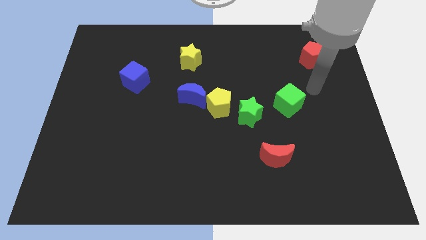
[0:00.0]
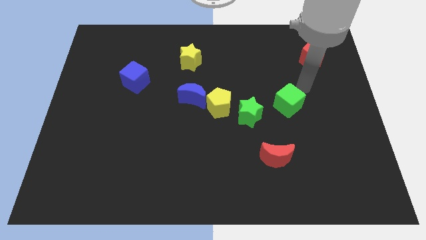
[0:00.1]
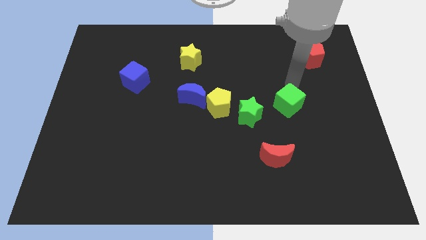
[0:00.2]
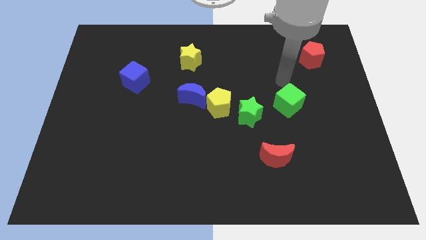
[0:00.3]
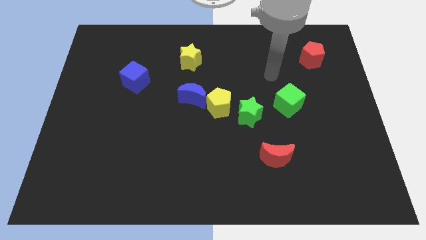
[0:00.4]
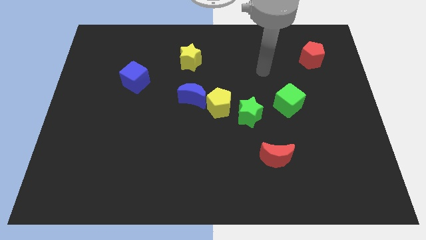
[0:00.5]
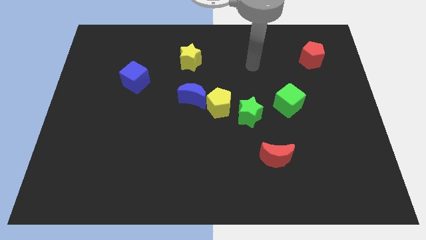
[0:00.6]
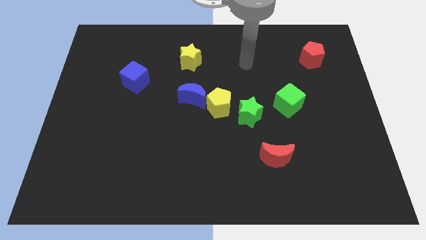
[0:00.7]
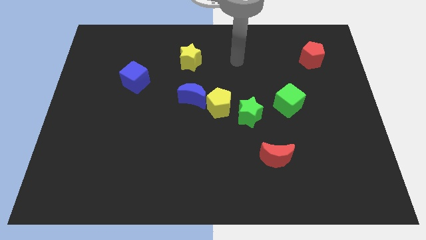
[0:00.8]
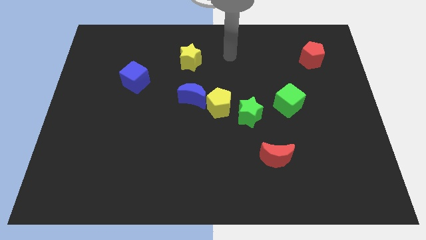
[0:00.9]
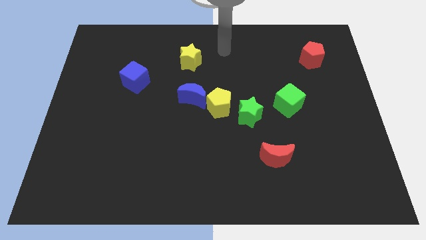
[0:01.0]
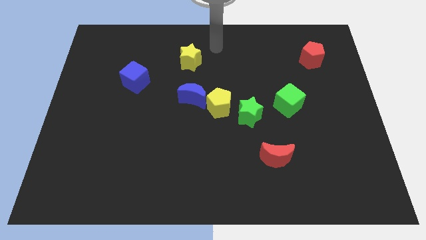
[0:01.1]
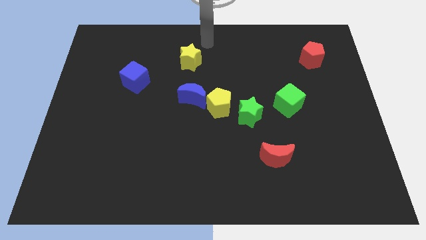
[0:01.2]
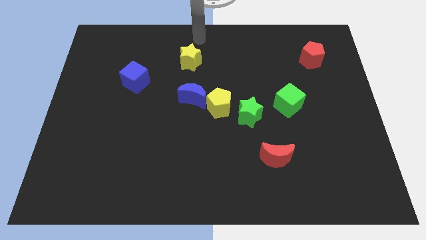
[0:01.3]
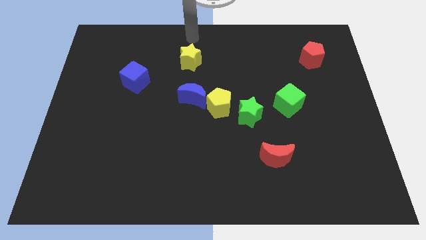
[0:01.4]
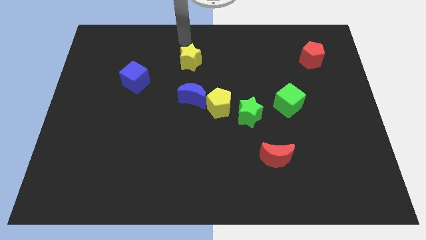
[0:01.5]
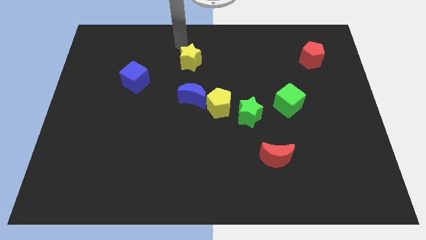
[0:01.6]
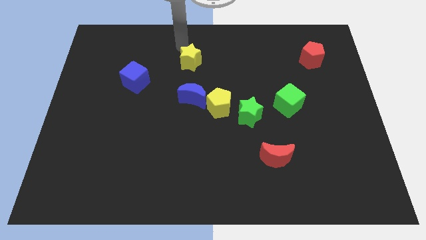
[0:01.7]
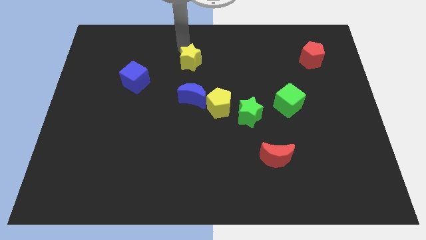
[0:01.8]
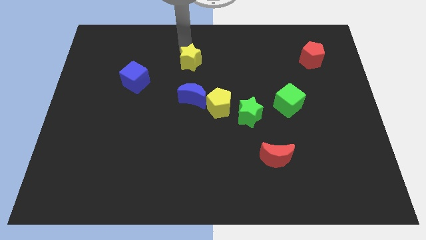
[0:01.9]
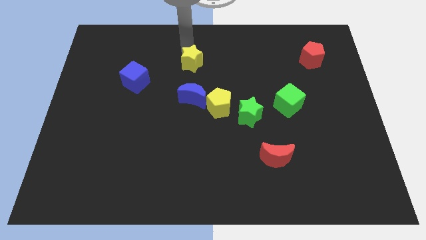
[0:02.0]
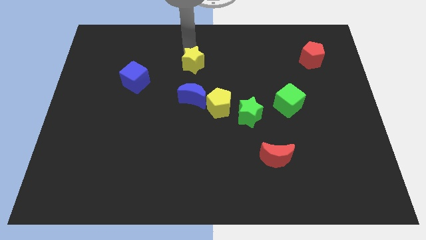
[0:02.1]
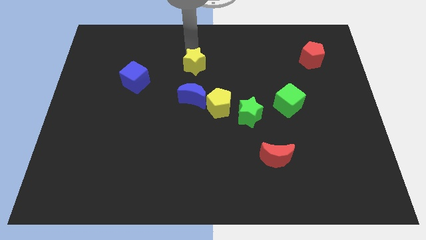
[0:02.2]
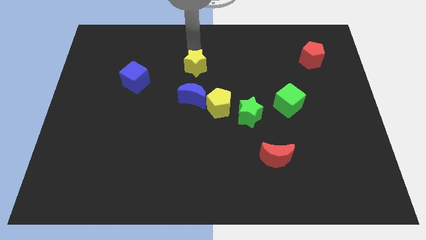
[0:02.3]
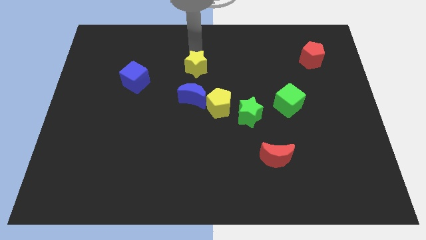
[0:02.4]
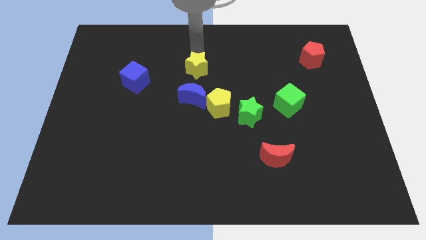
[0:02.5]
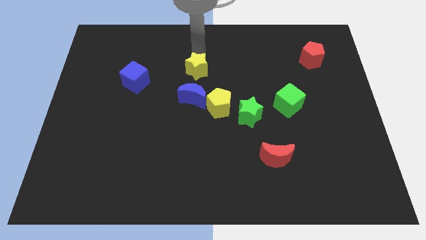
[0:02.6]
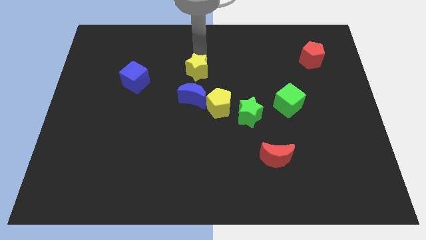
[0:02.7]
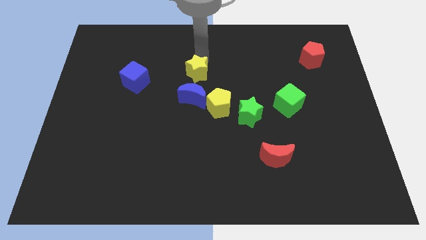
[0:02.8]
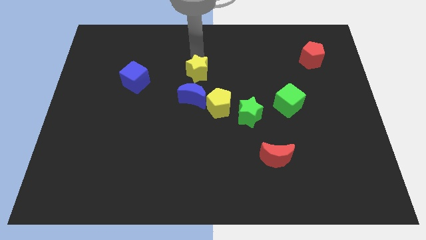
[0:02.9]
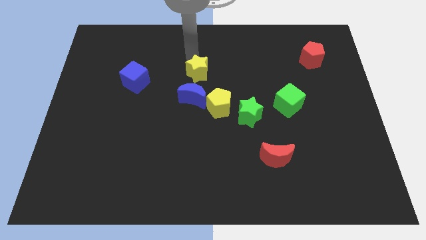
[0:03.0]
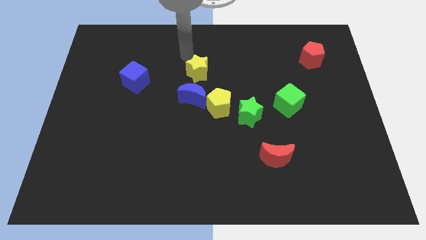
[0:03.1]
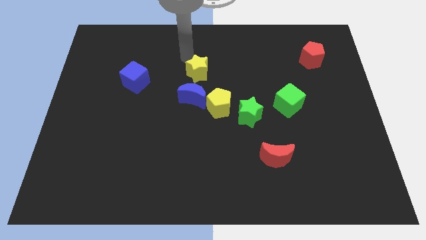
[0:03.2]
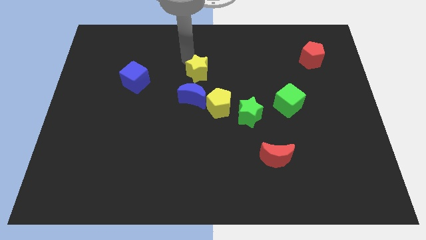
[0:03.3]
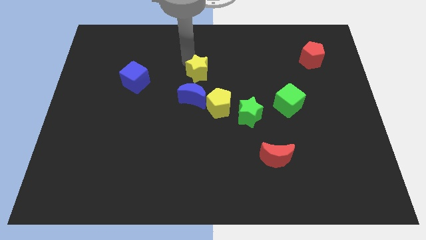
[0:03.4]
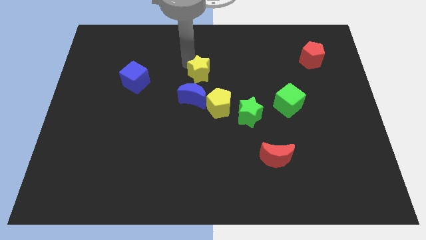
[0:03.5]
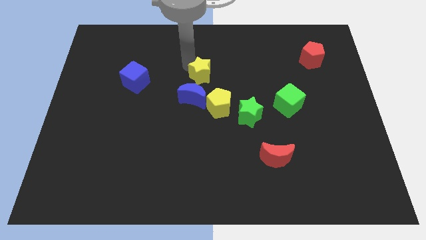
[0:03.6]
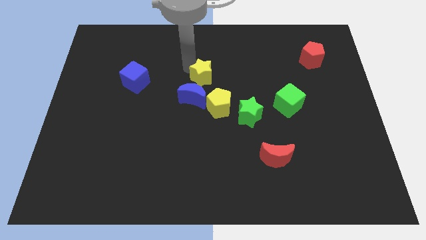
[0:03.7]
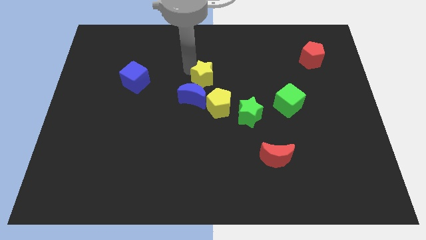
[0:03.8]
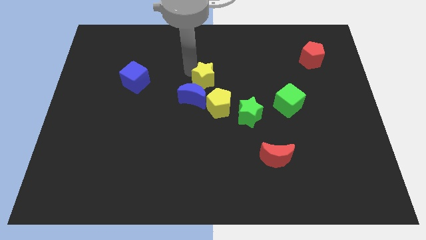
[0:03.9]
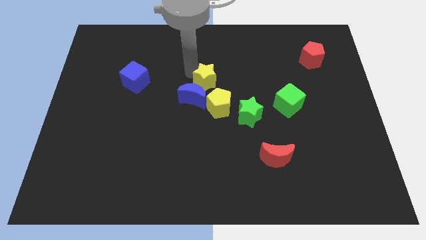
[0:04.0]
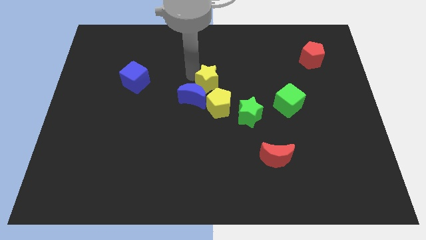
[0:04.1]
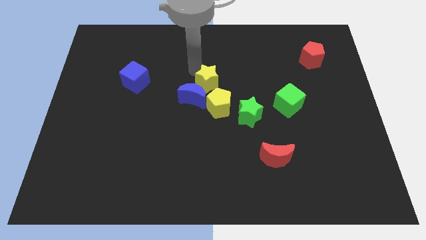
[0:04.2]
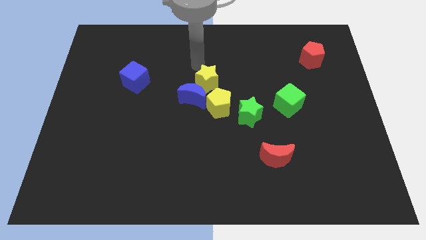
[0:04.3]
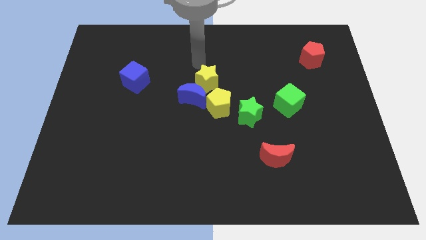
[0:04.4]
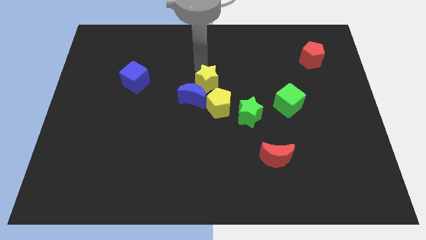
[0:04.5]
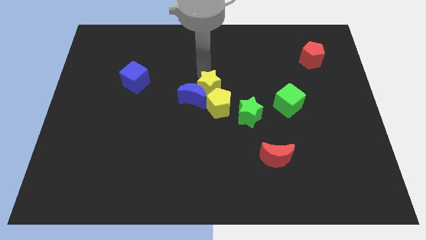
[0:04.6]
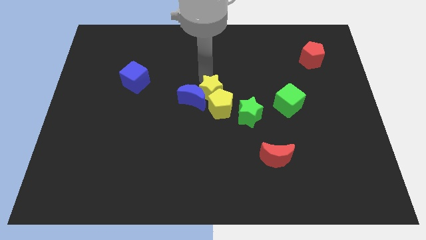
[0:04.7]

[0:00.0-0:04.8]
put the yellow star close to the yellow pentagon

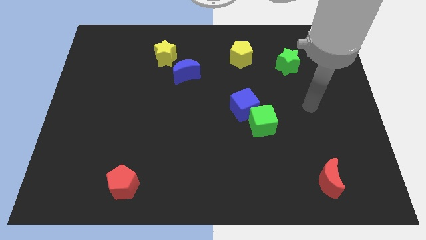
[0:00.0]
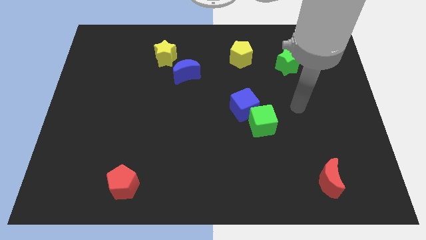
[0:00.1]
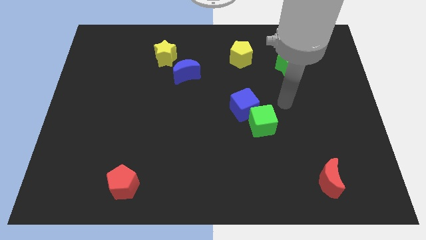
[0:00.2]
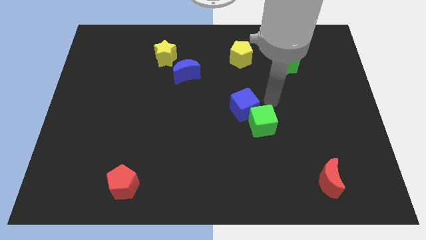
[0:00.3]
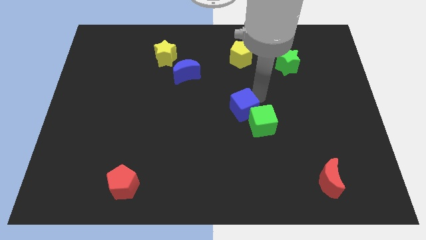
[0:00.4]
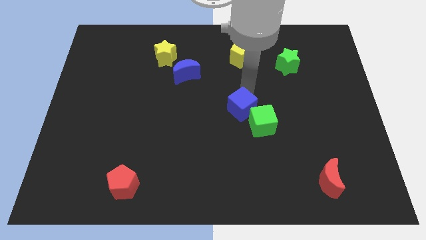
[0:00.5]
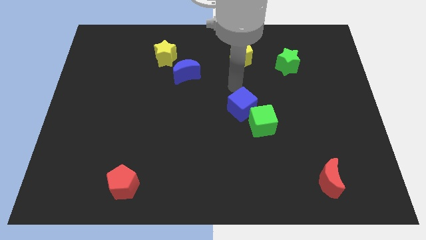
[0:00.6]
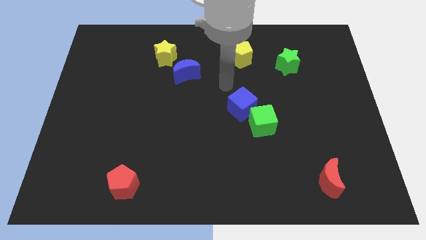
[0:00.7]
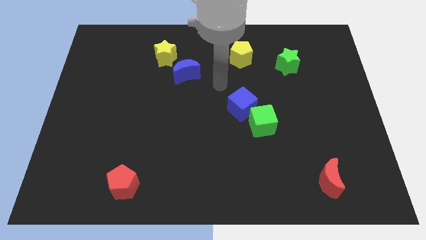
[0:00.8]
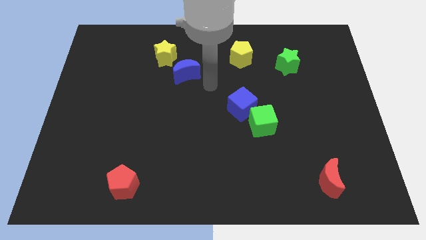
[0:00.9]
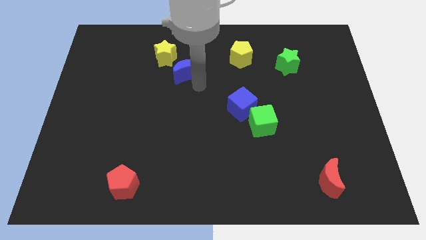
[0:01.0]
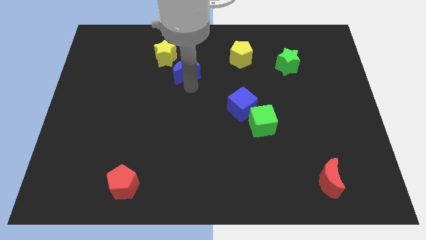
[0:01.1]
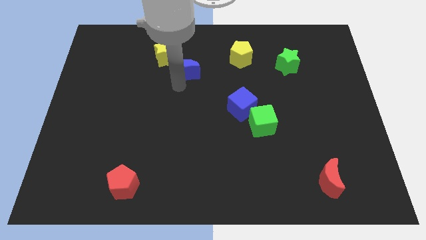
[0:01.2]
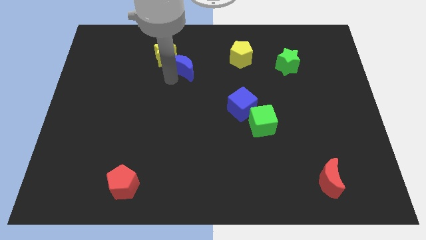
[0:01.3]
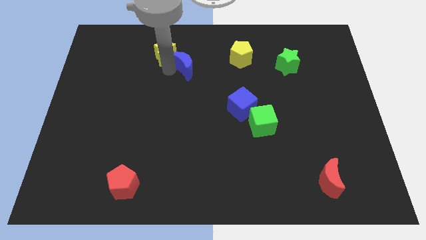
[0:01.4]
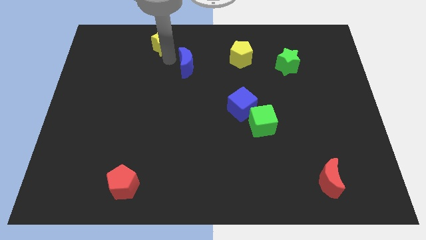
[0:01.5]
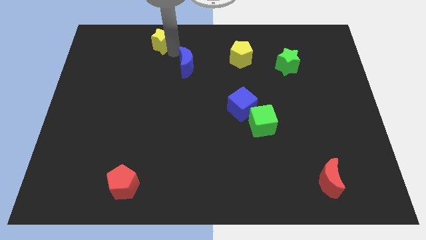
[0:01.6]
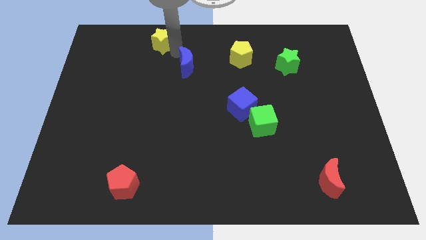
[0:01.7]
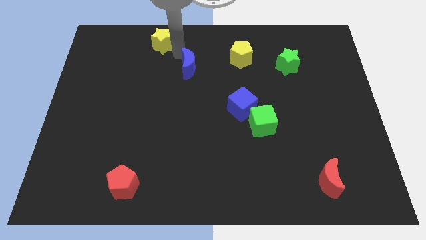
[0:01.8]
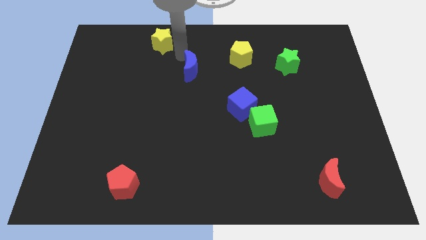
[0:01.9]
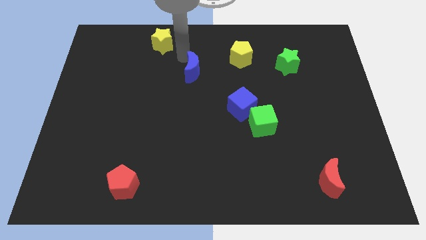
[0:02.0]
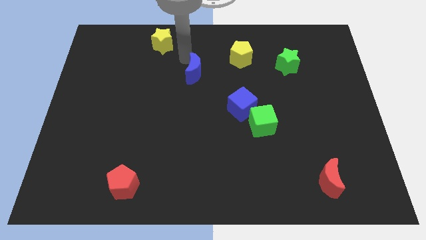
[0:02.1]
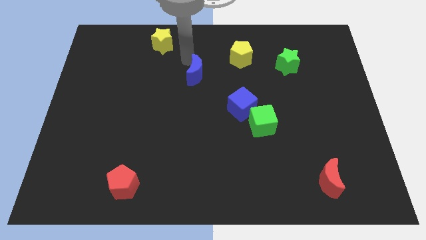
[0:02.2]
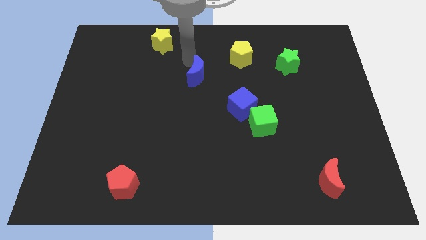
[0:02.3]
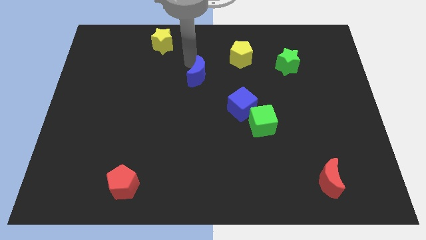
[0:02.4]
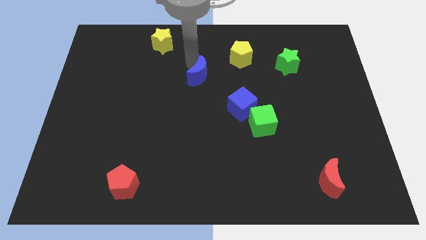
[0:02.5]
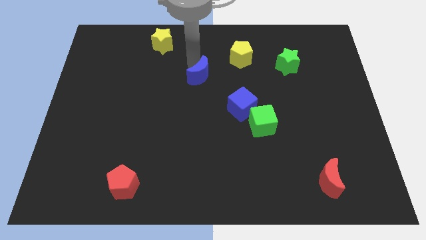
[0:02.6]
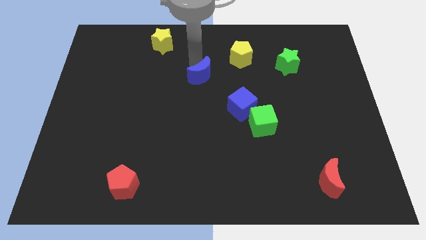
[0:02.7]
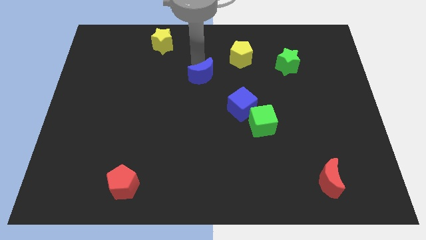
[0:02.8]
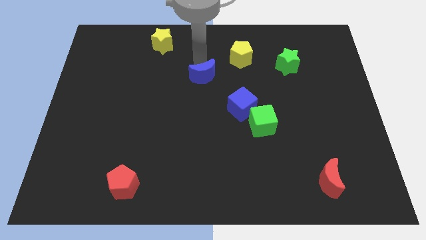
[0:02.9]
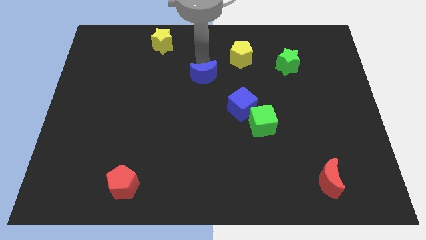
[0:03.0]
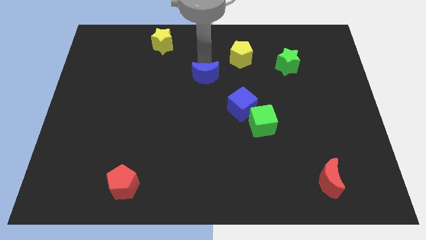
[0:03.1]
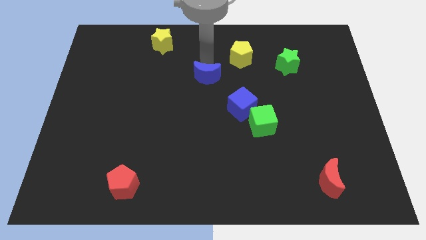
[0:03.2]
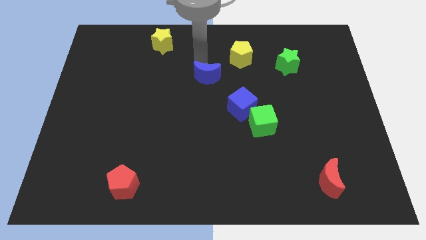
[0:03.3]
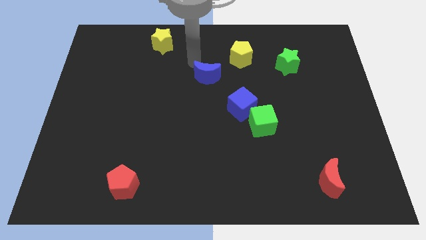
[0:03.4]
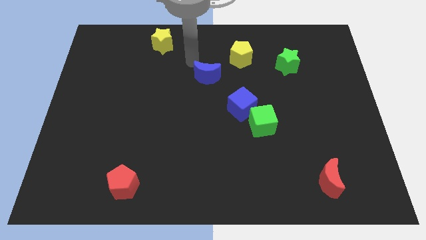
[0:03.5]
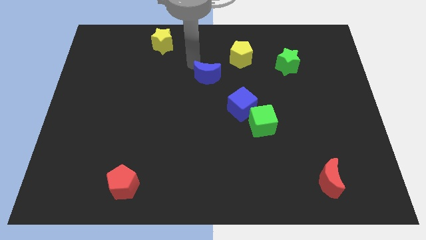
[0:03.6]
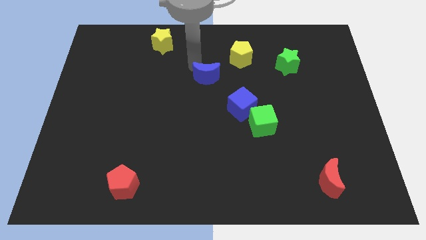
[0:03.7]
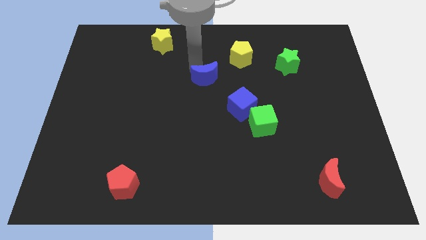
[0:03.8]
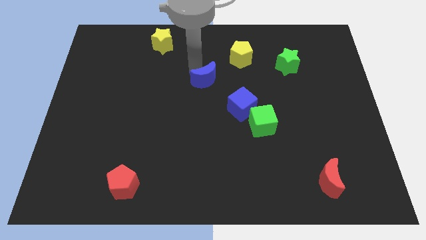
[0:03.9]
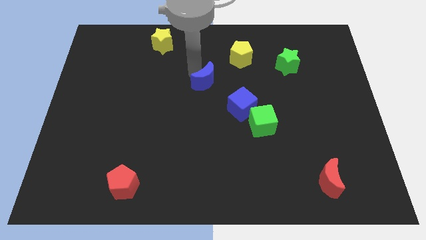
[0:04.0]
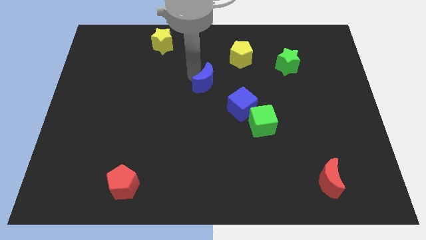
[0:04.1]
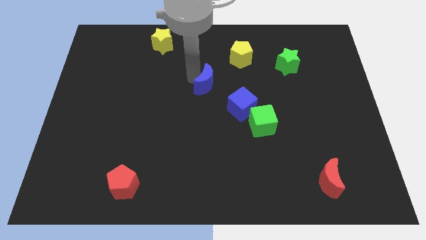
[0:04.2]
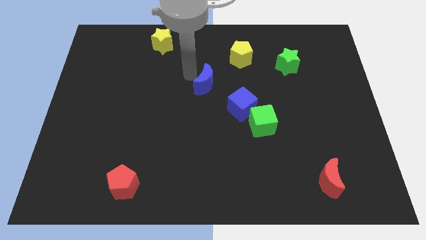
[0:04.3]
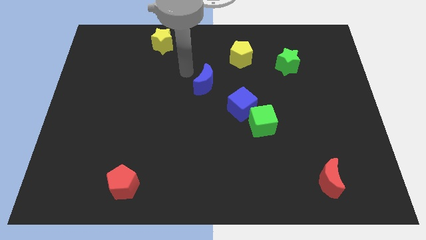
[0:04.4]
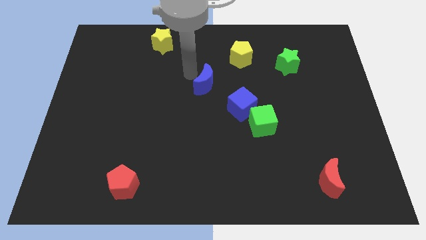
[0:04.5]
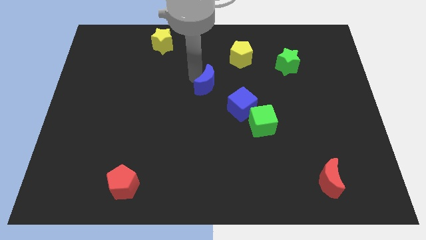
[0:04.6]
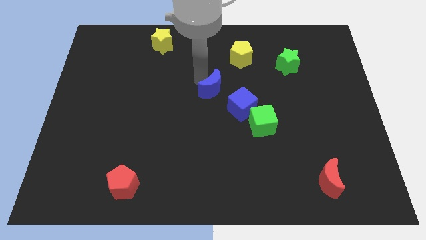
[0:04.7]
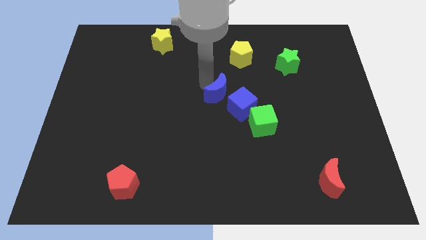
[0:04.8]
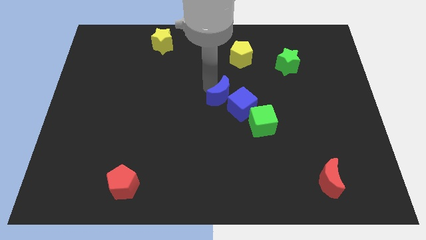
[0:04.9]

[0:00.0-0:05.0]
push the blue moon next to the blue cube
